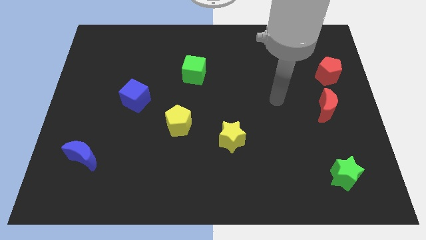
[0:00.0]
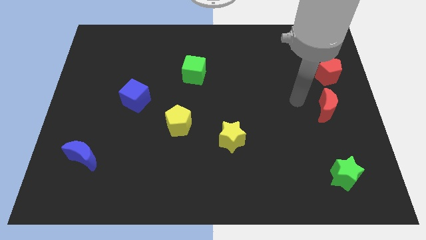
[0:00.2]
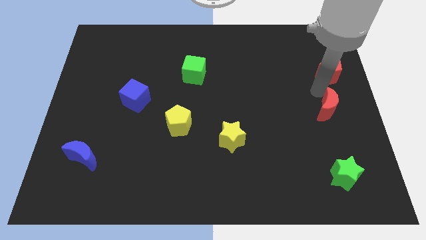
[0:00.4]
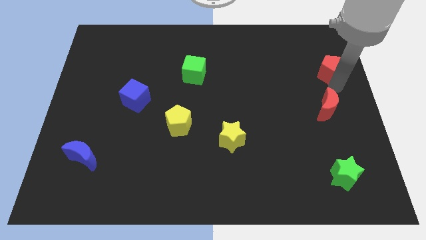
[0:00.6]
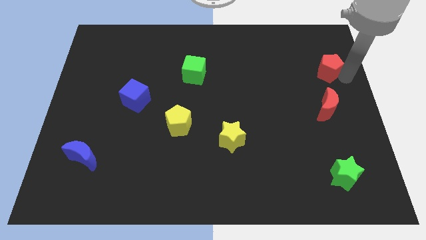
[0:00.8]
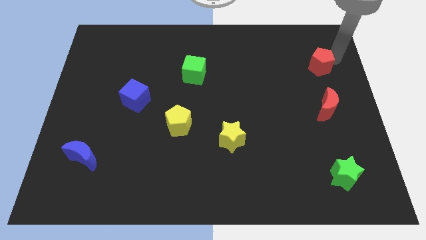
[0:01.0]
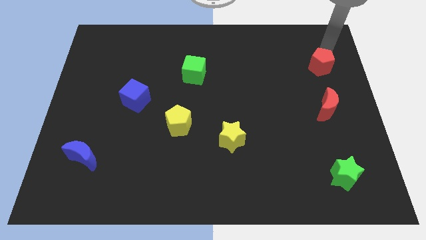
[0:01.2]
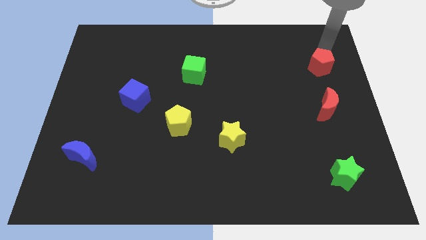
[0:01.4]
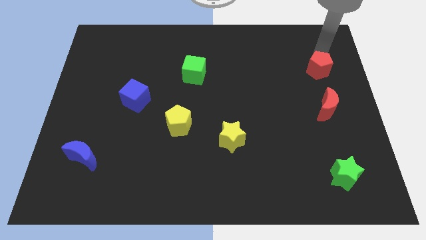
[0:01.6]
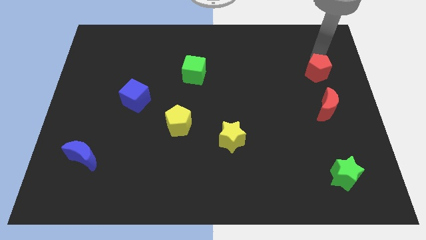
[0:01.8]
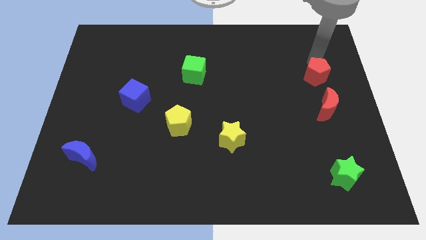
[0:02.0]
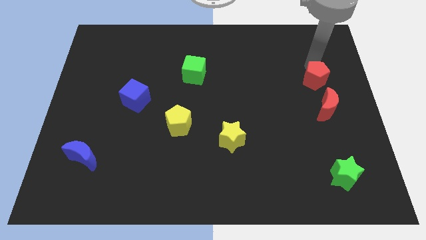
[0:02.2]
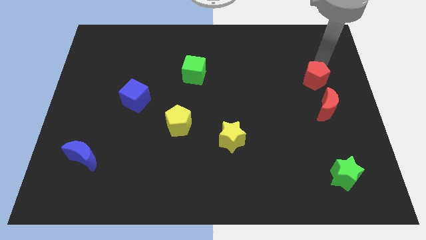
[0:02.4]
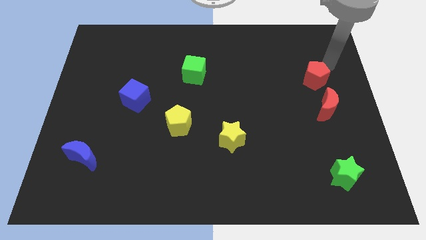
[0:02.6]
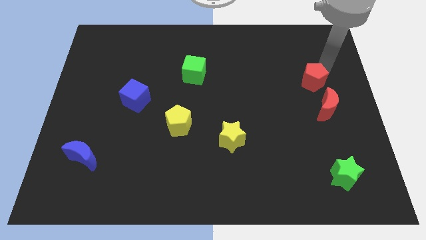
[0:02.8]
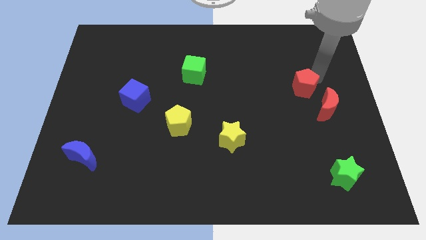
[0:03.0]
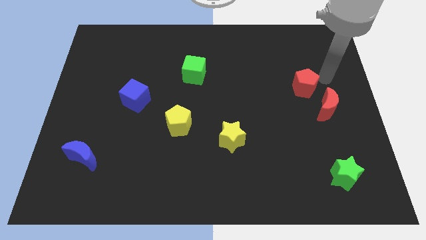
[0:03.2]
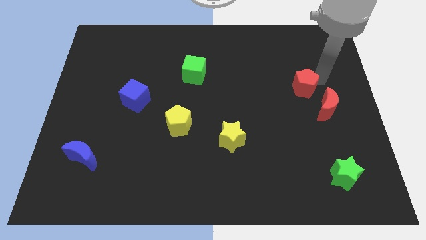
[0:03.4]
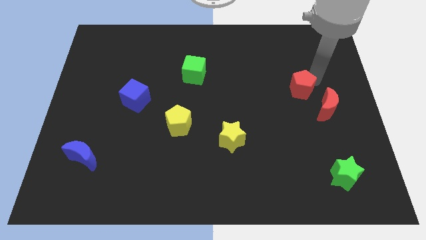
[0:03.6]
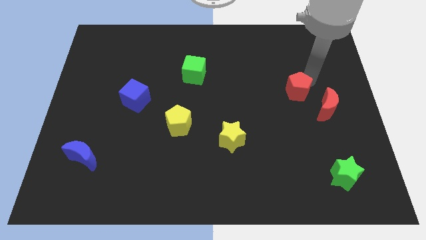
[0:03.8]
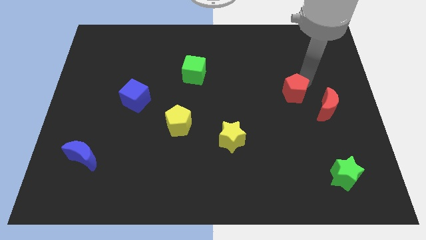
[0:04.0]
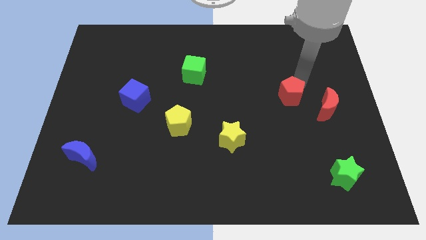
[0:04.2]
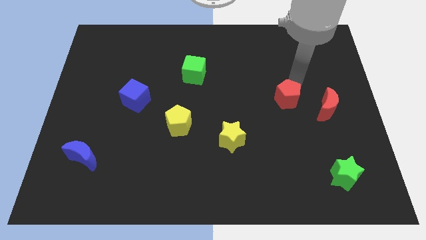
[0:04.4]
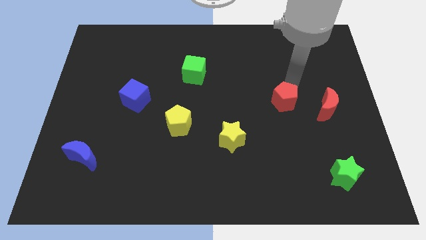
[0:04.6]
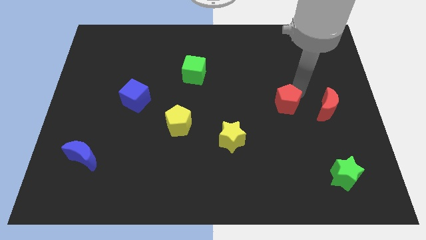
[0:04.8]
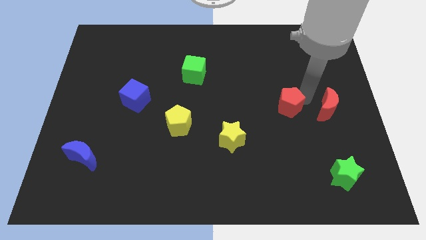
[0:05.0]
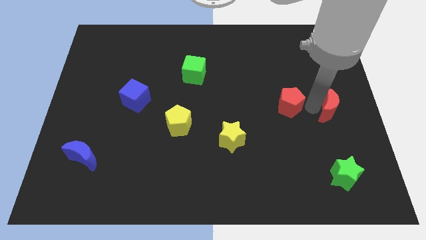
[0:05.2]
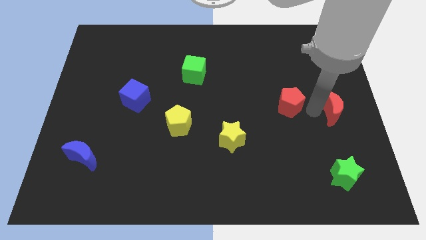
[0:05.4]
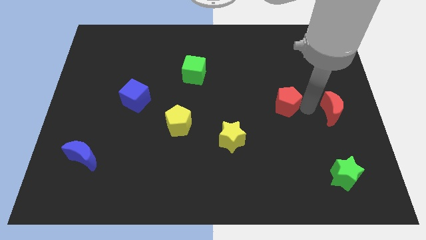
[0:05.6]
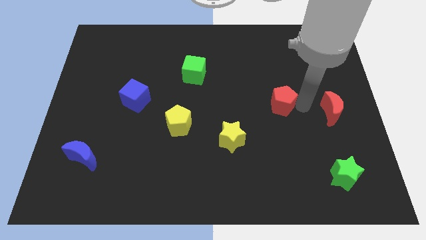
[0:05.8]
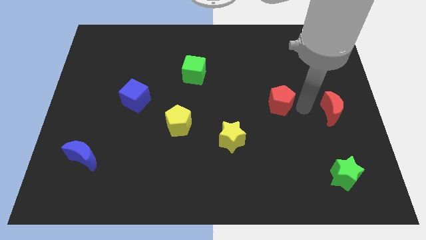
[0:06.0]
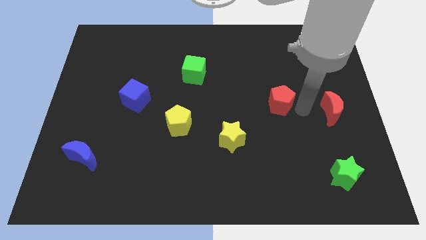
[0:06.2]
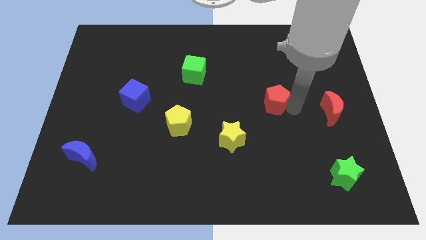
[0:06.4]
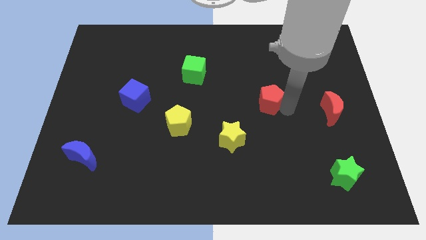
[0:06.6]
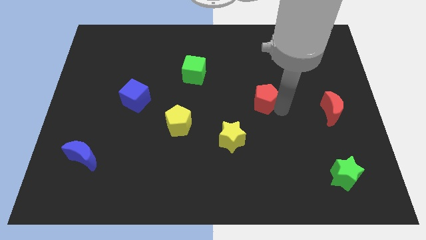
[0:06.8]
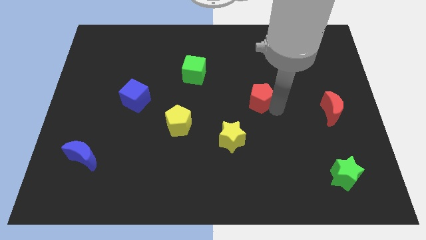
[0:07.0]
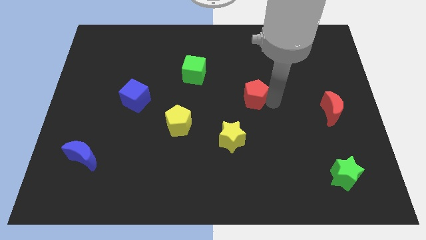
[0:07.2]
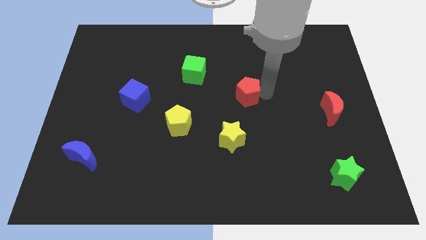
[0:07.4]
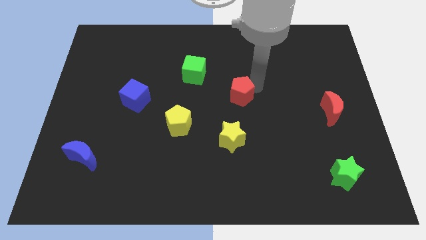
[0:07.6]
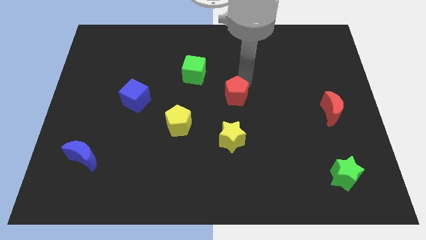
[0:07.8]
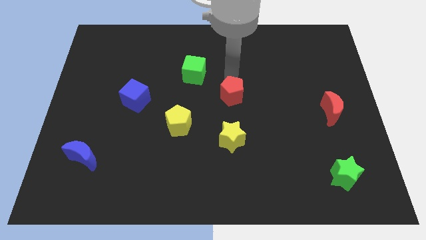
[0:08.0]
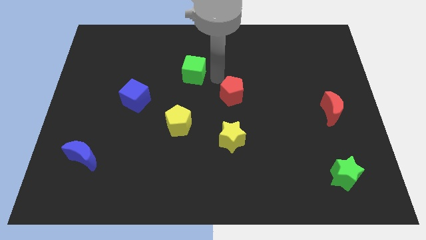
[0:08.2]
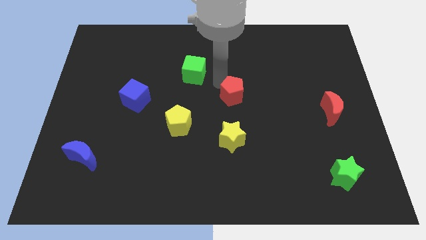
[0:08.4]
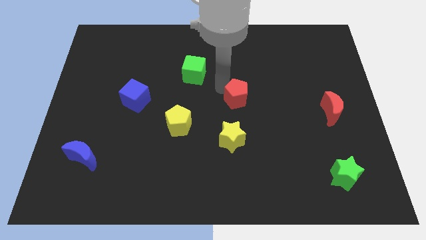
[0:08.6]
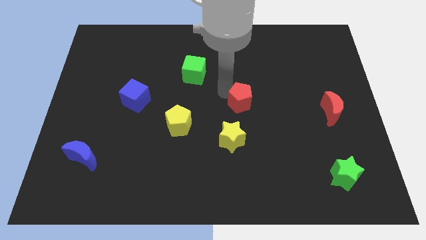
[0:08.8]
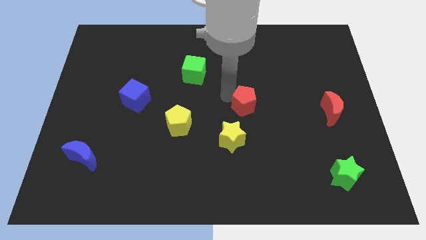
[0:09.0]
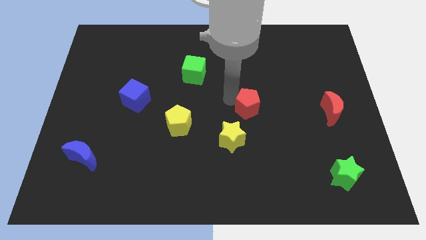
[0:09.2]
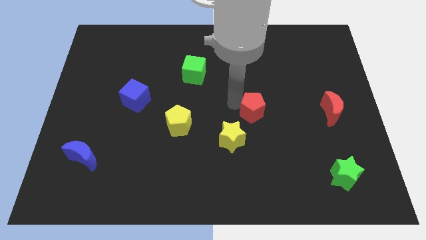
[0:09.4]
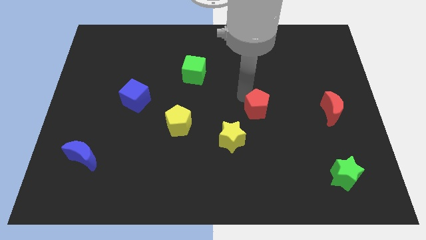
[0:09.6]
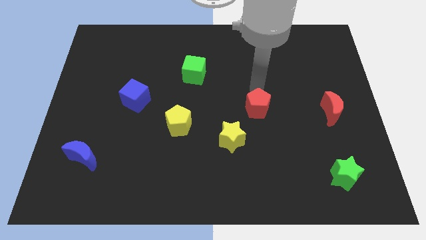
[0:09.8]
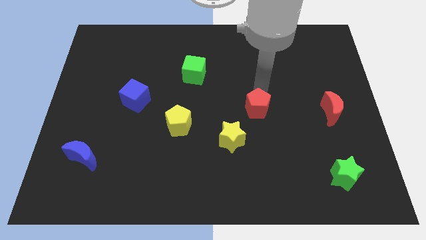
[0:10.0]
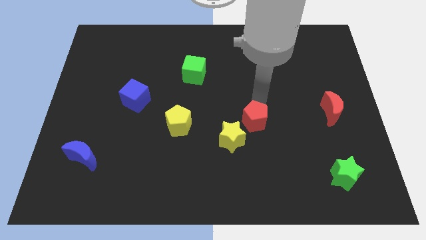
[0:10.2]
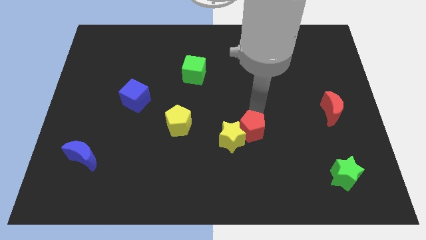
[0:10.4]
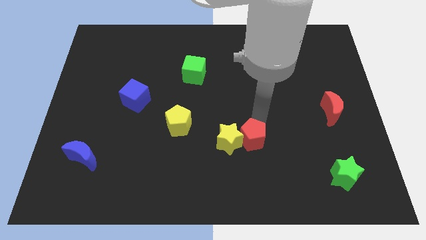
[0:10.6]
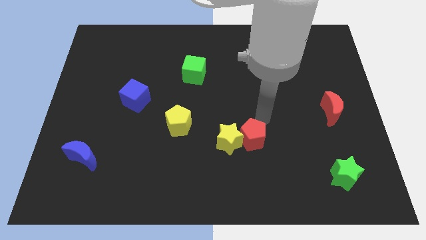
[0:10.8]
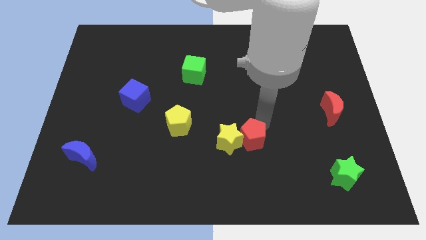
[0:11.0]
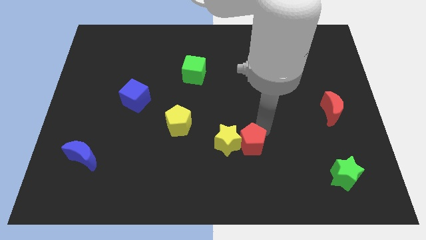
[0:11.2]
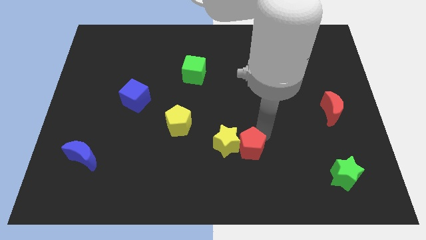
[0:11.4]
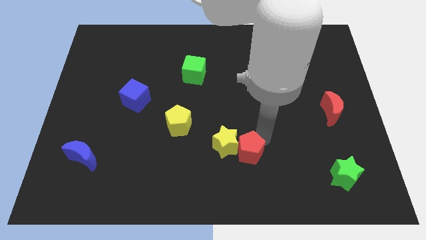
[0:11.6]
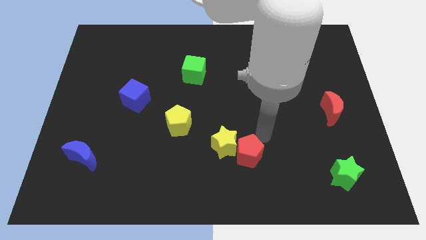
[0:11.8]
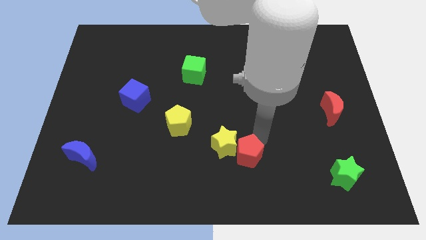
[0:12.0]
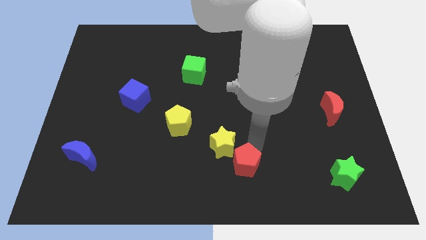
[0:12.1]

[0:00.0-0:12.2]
move the red pentagon to the bottom of the yellow star

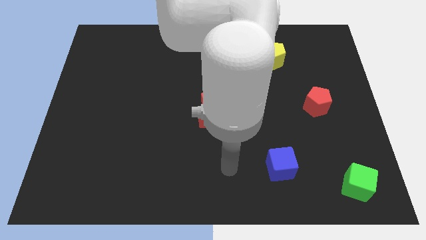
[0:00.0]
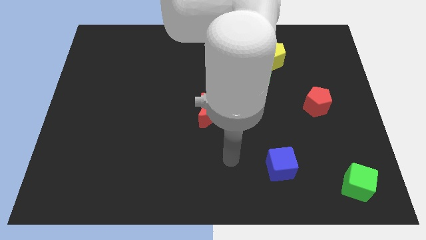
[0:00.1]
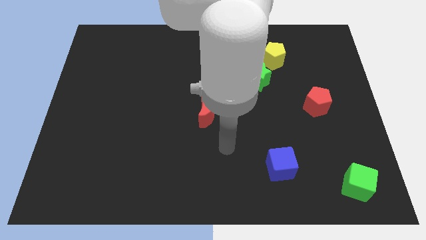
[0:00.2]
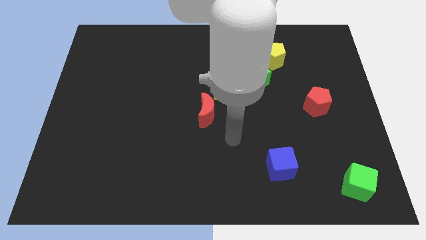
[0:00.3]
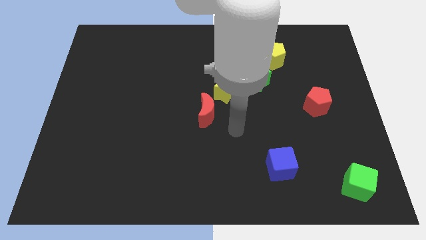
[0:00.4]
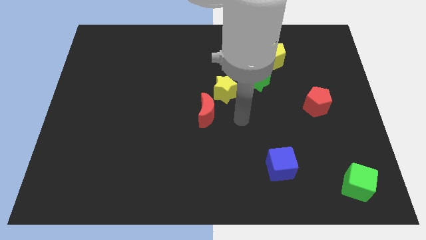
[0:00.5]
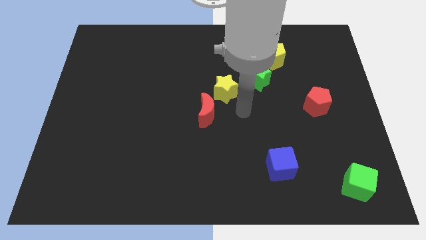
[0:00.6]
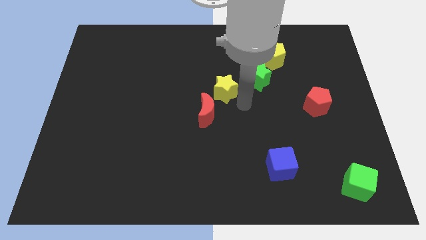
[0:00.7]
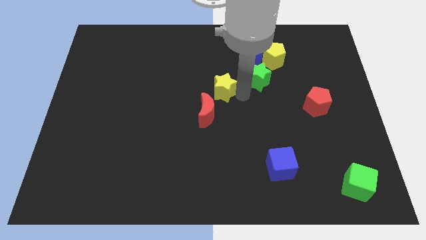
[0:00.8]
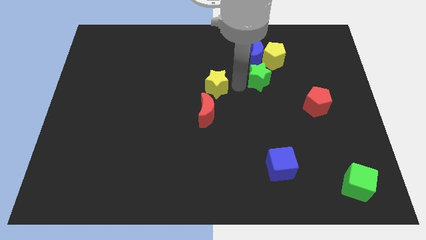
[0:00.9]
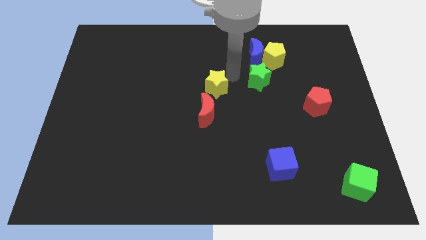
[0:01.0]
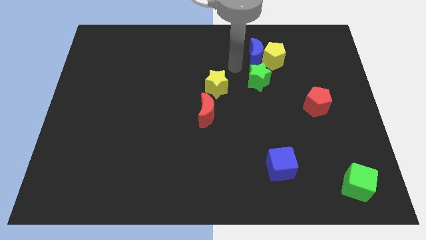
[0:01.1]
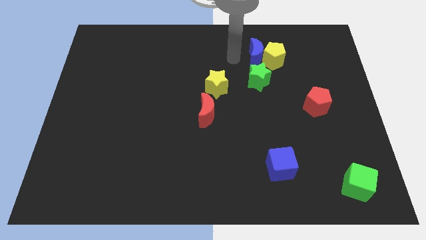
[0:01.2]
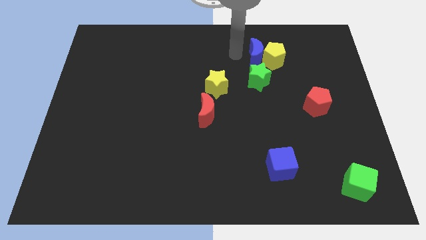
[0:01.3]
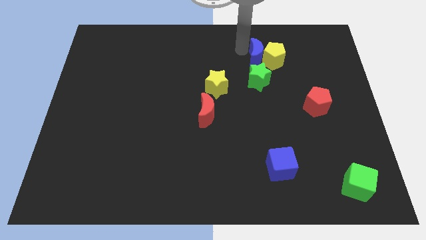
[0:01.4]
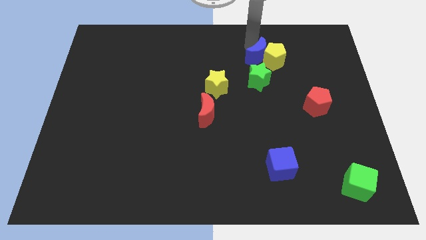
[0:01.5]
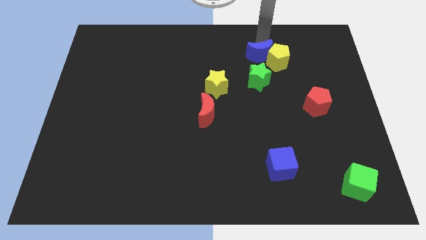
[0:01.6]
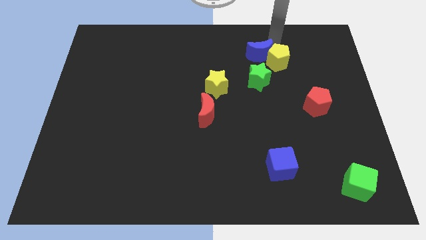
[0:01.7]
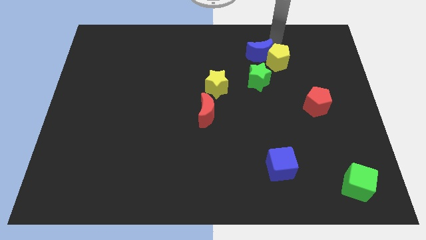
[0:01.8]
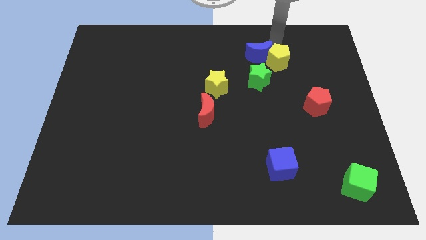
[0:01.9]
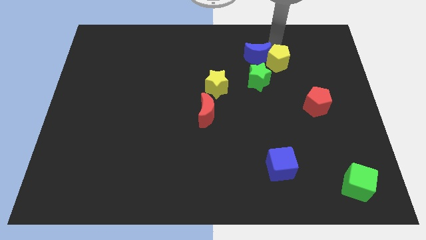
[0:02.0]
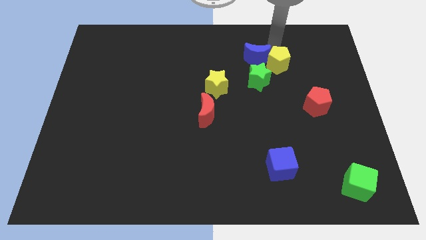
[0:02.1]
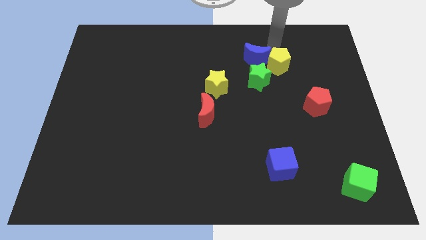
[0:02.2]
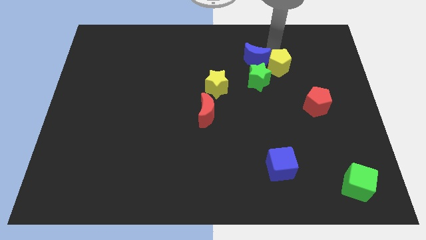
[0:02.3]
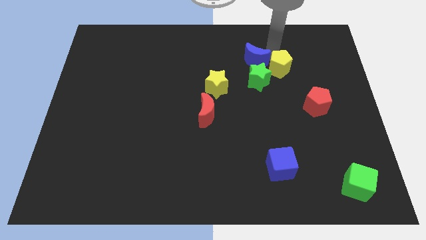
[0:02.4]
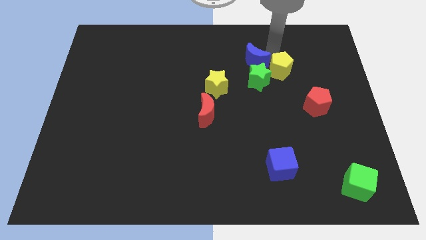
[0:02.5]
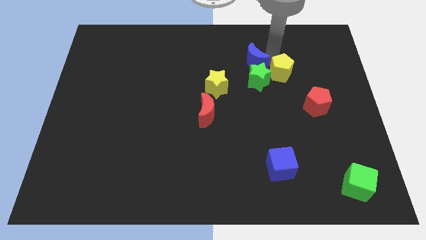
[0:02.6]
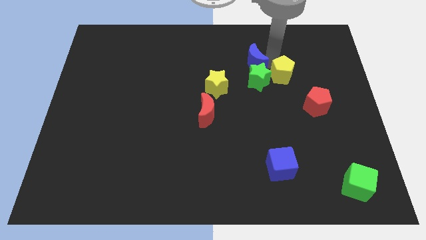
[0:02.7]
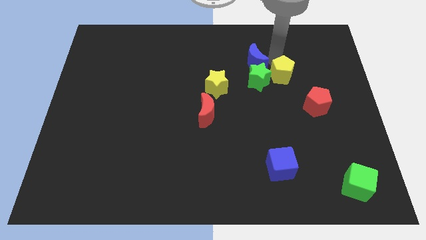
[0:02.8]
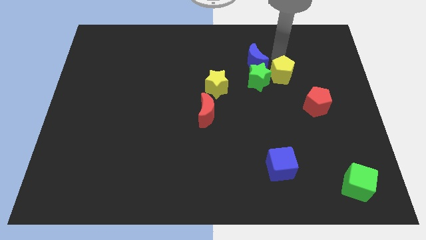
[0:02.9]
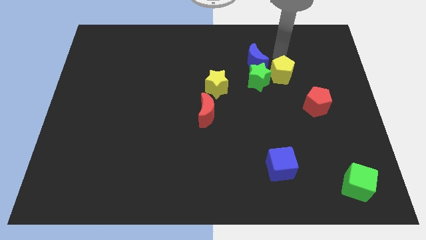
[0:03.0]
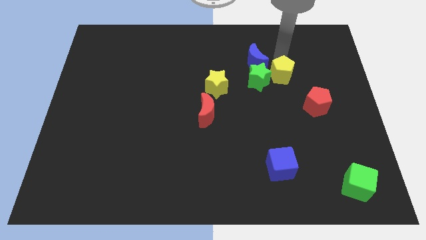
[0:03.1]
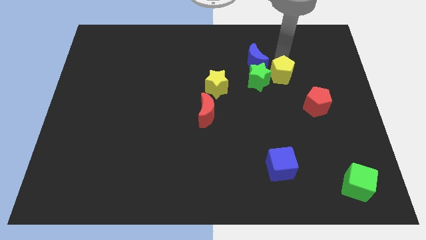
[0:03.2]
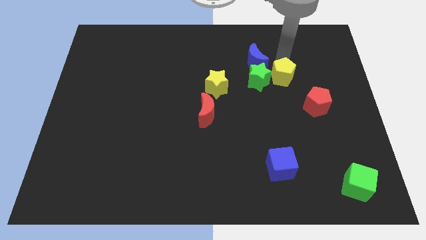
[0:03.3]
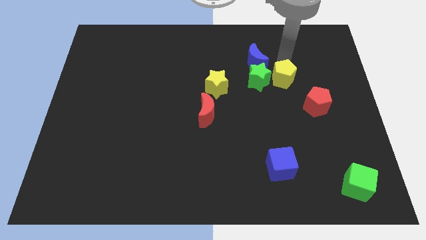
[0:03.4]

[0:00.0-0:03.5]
slide the yellow pentagon to the bottom right of the green star
